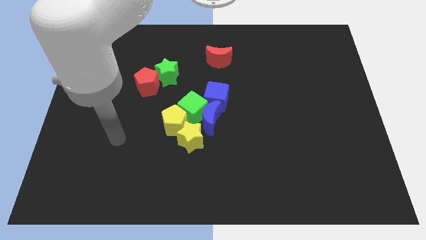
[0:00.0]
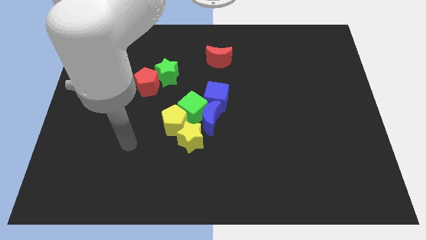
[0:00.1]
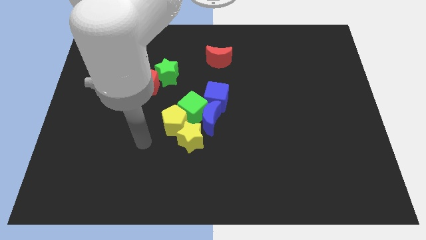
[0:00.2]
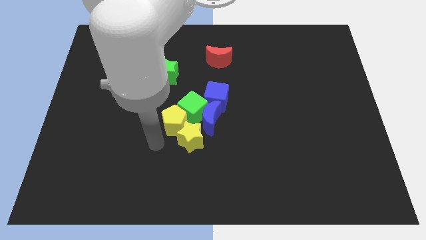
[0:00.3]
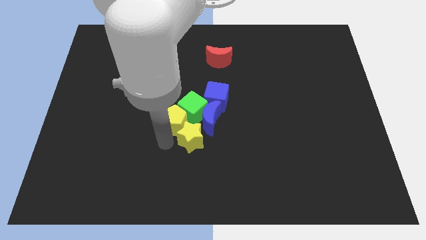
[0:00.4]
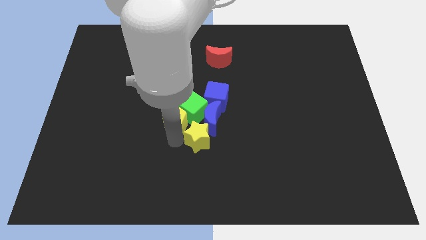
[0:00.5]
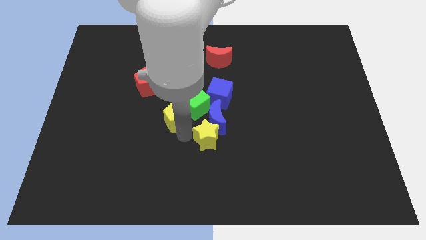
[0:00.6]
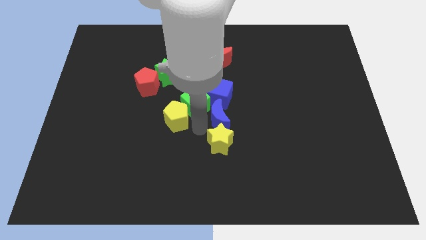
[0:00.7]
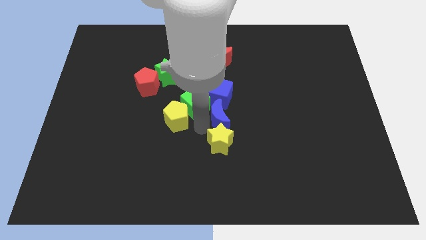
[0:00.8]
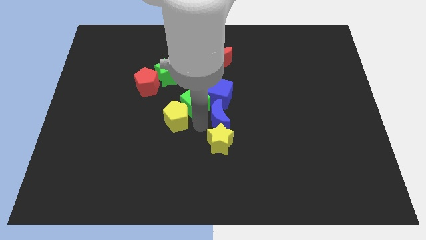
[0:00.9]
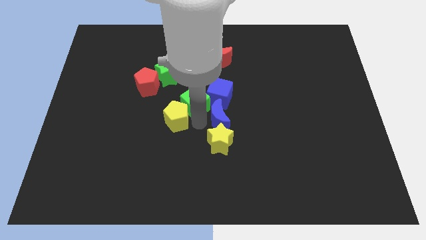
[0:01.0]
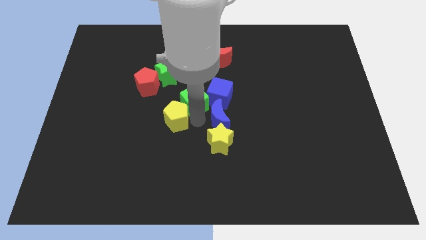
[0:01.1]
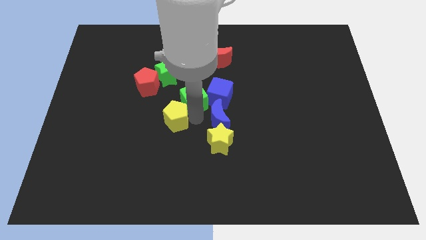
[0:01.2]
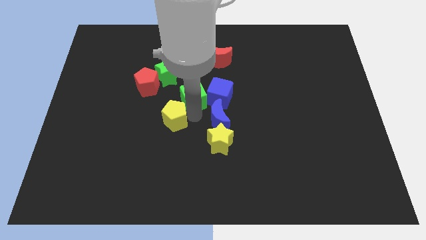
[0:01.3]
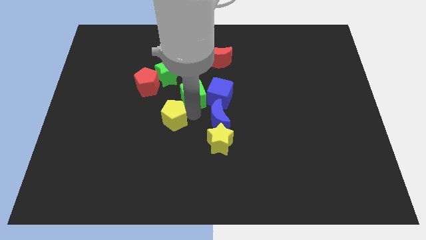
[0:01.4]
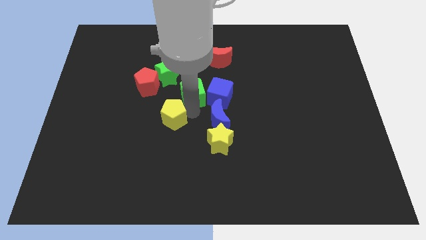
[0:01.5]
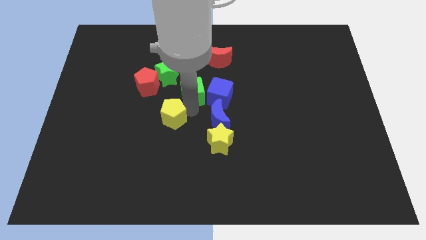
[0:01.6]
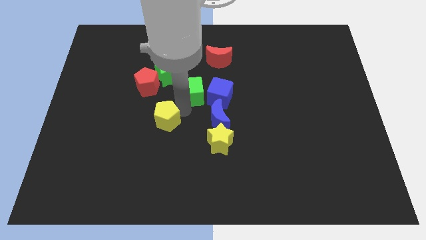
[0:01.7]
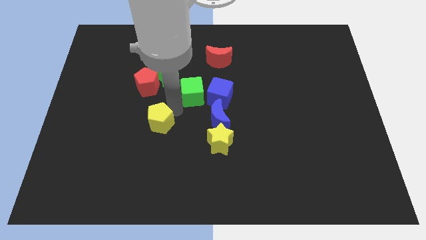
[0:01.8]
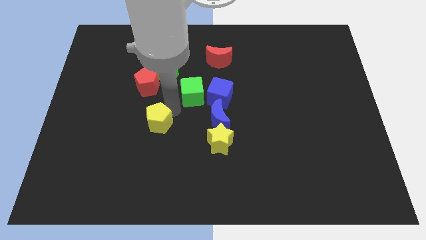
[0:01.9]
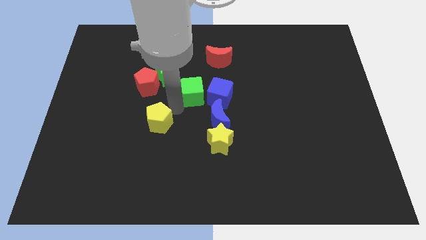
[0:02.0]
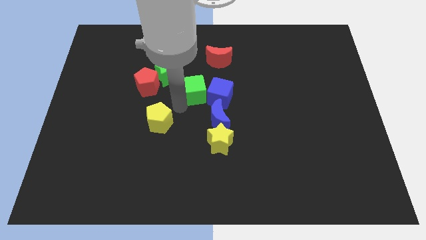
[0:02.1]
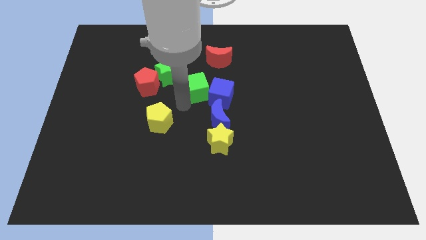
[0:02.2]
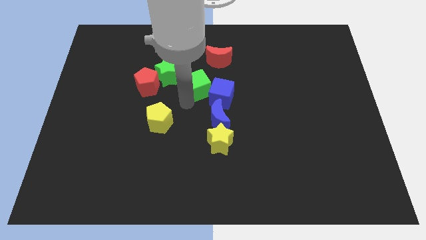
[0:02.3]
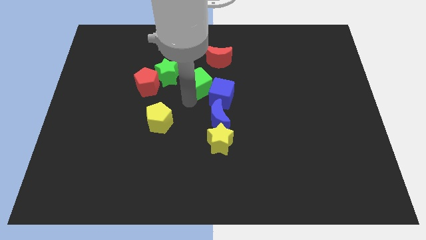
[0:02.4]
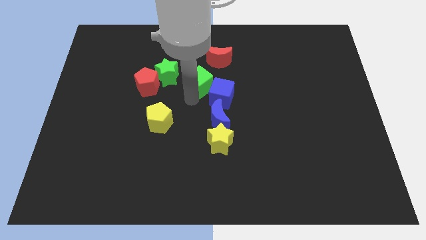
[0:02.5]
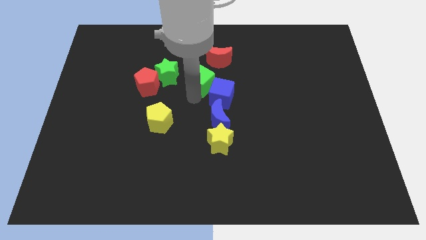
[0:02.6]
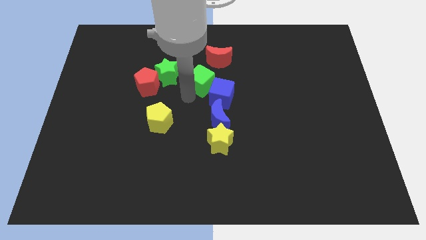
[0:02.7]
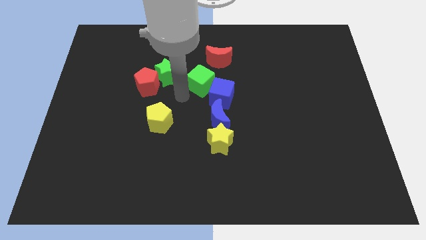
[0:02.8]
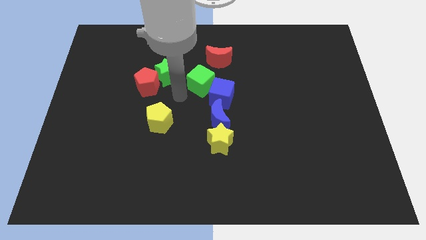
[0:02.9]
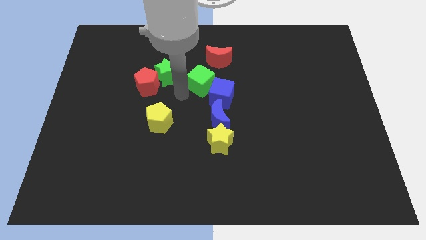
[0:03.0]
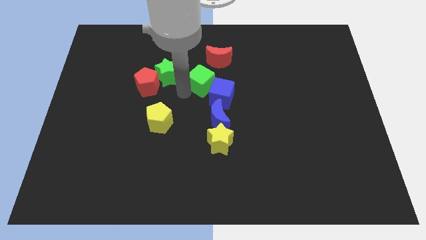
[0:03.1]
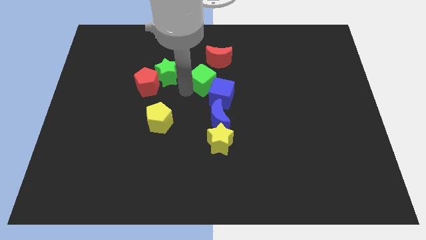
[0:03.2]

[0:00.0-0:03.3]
move the green cube up and then right somewhat

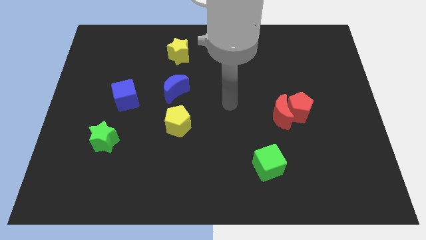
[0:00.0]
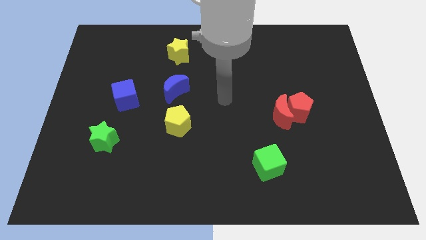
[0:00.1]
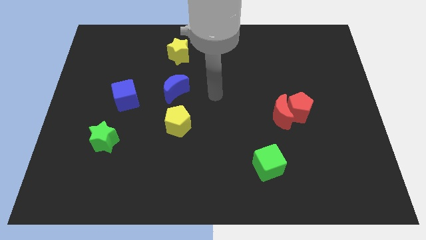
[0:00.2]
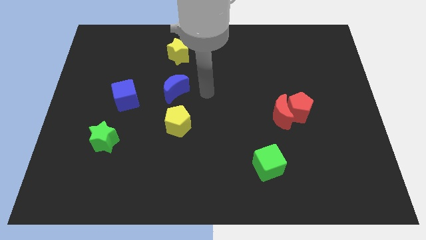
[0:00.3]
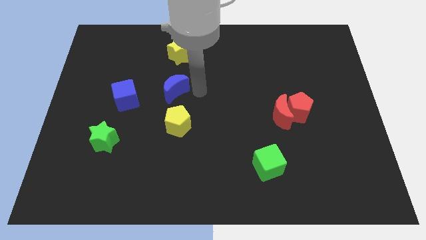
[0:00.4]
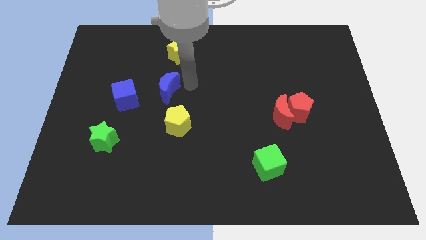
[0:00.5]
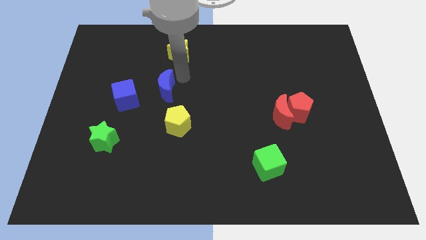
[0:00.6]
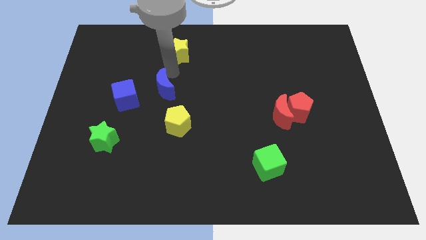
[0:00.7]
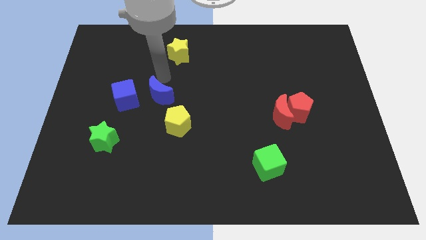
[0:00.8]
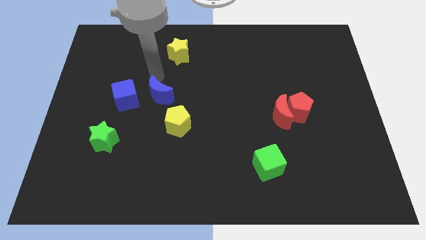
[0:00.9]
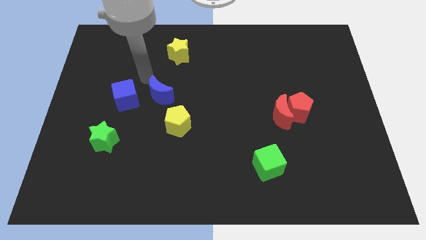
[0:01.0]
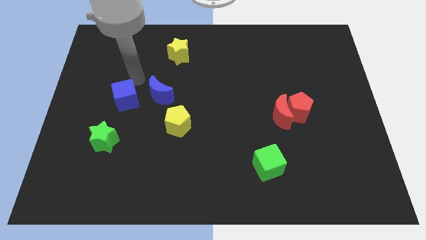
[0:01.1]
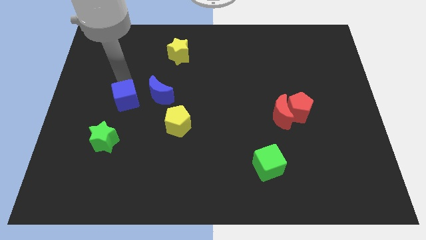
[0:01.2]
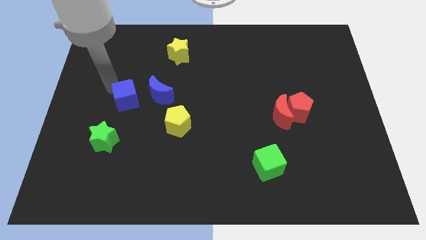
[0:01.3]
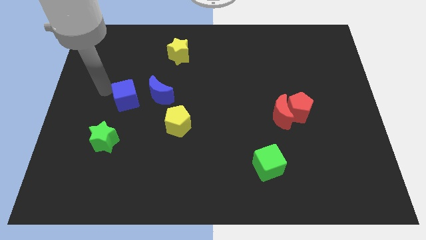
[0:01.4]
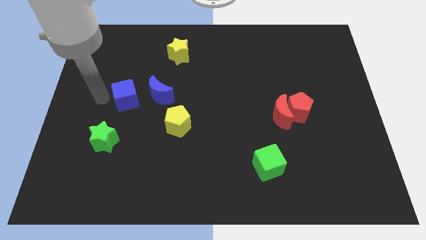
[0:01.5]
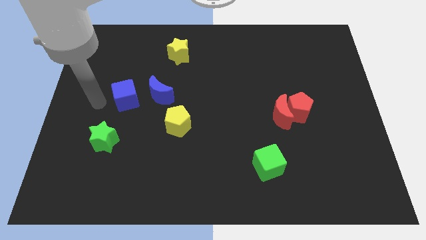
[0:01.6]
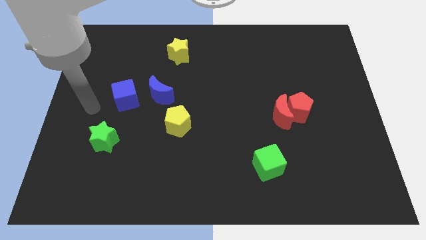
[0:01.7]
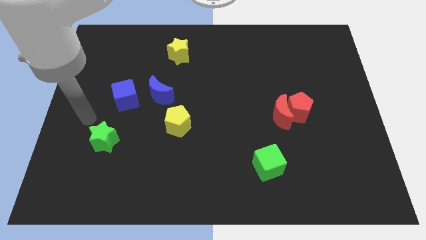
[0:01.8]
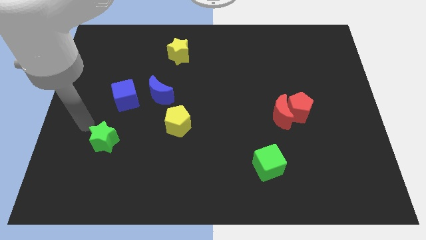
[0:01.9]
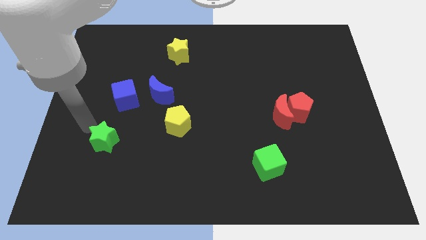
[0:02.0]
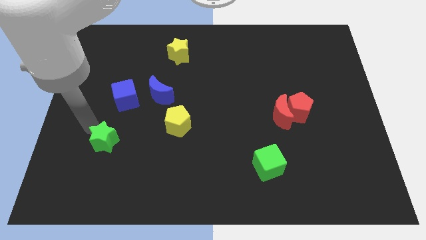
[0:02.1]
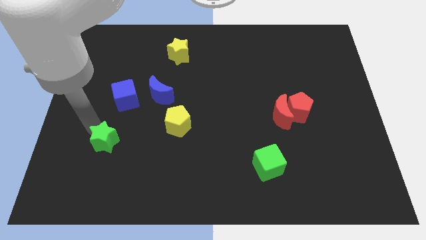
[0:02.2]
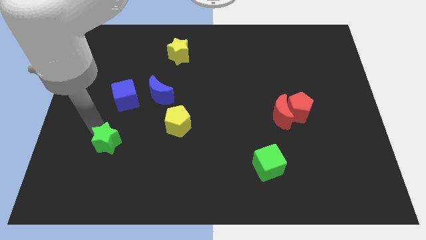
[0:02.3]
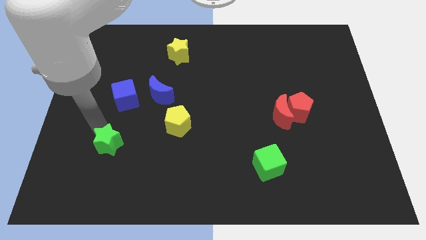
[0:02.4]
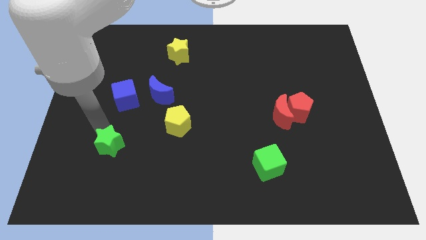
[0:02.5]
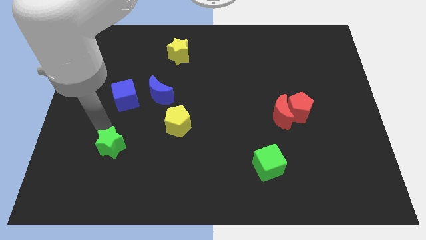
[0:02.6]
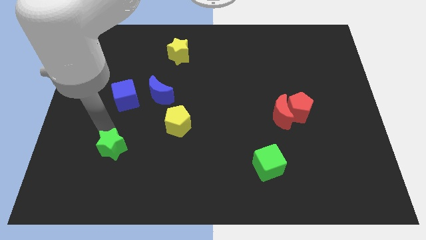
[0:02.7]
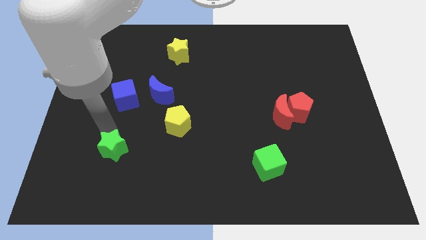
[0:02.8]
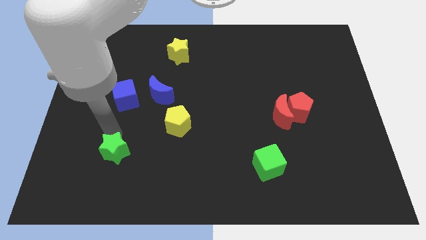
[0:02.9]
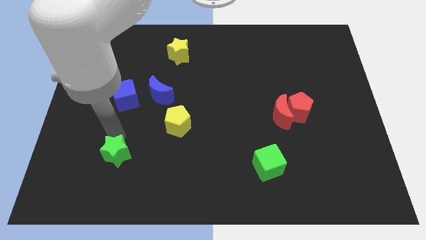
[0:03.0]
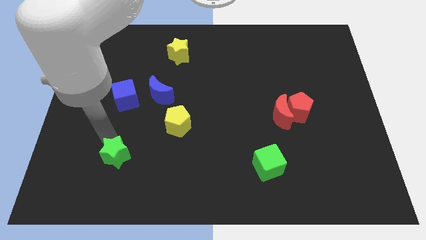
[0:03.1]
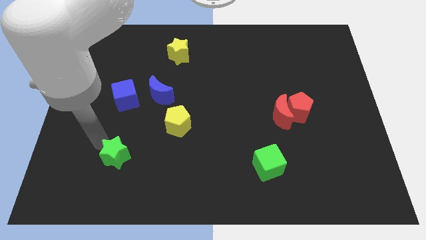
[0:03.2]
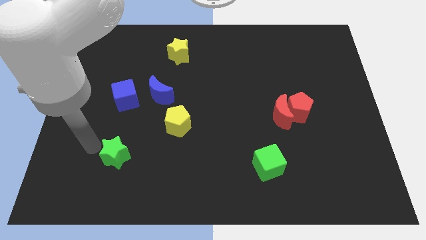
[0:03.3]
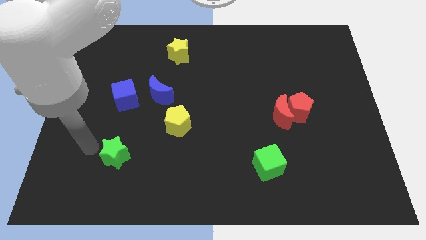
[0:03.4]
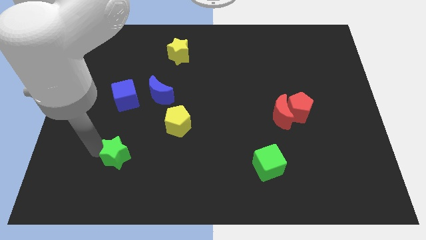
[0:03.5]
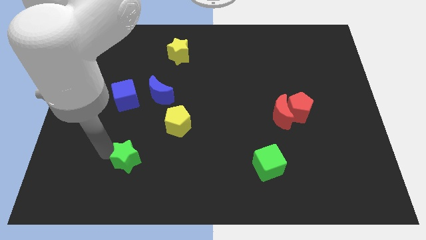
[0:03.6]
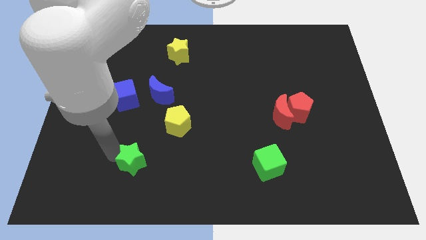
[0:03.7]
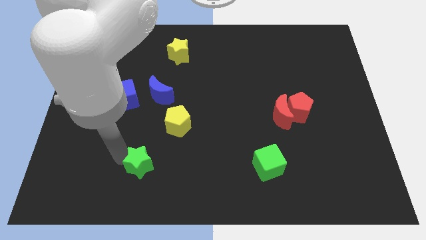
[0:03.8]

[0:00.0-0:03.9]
move the green star to the right a bit

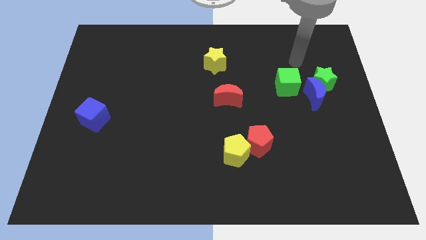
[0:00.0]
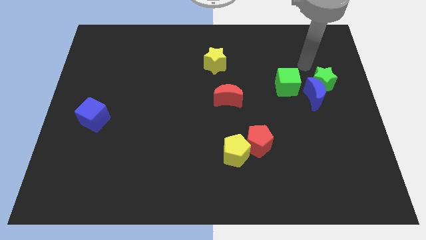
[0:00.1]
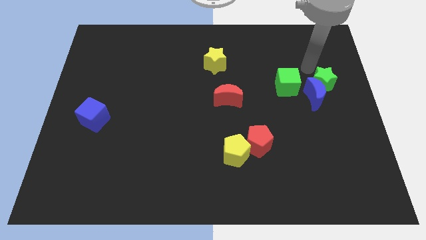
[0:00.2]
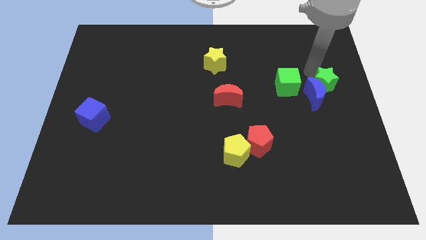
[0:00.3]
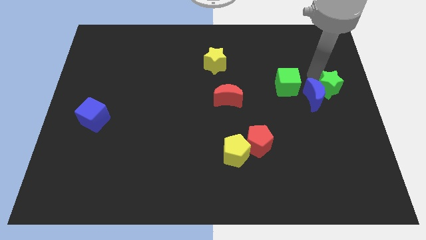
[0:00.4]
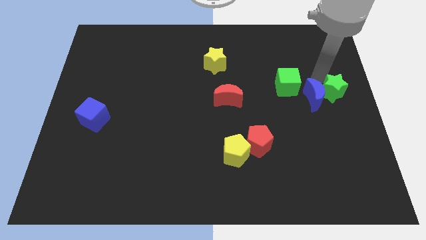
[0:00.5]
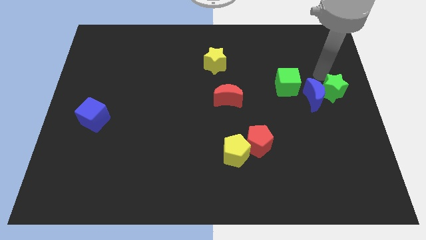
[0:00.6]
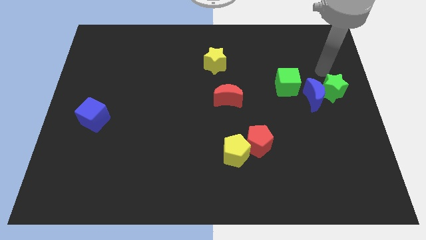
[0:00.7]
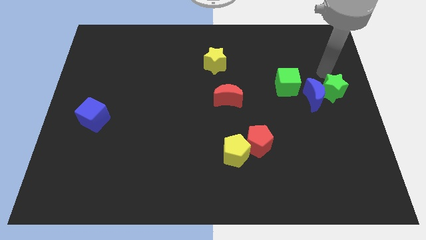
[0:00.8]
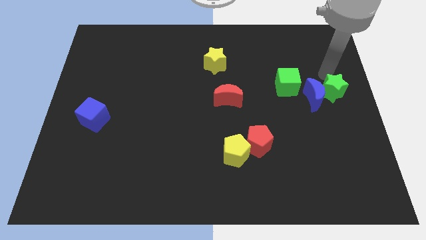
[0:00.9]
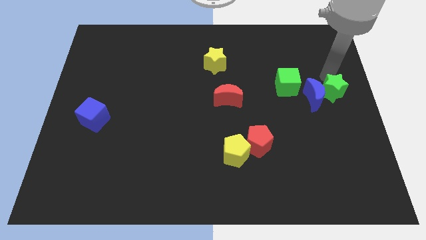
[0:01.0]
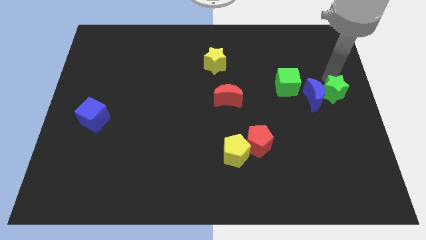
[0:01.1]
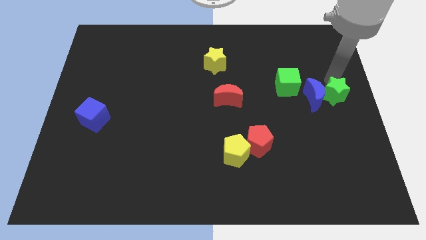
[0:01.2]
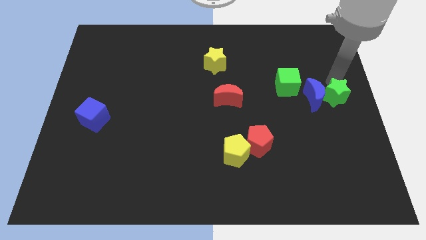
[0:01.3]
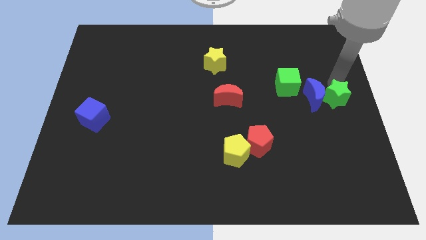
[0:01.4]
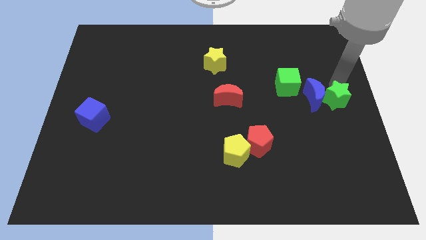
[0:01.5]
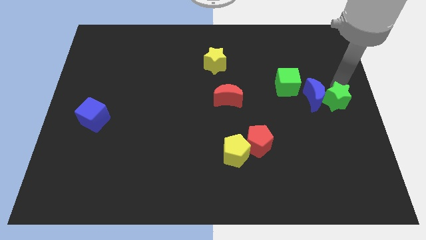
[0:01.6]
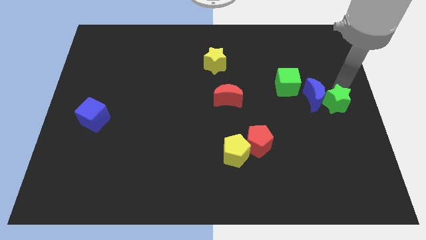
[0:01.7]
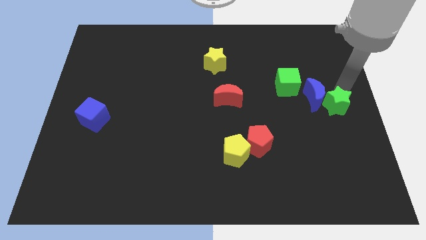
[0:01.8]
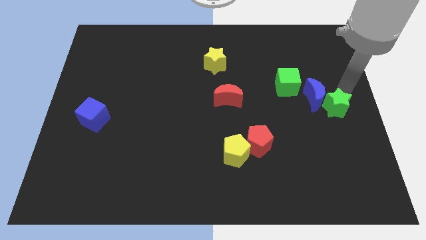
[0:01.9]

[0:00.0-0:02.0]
push the green star down slightly
